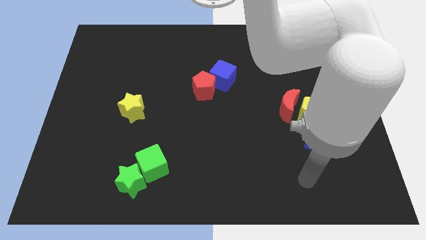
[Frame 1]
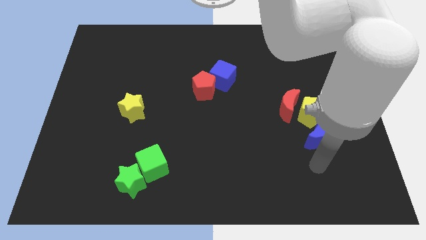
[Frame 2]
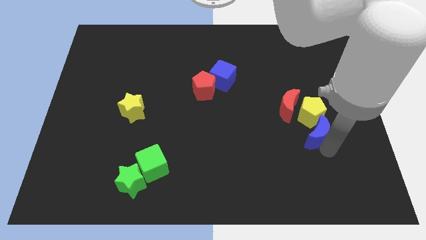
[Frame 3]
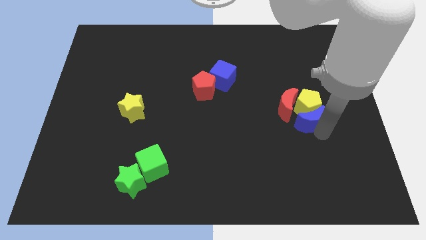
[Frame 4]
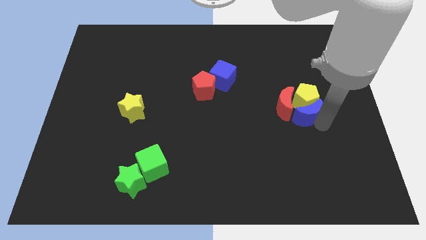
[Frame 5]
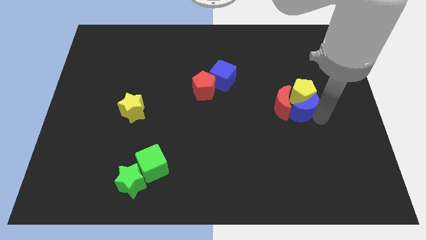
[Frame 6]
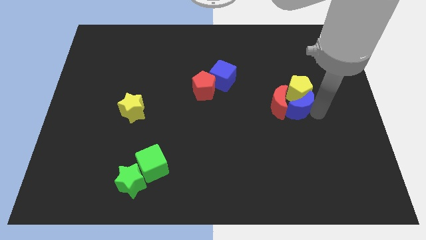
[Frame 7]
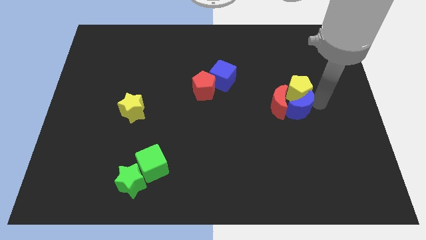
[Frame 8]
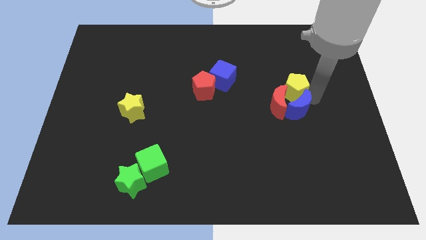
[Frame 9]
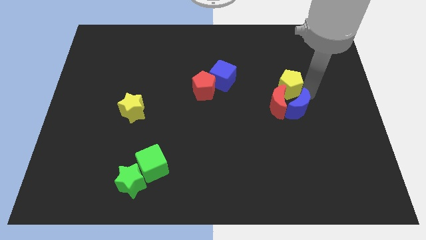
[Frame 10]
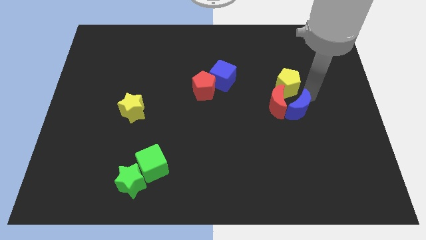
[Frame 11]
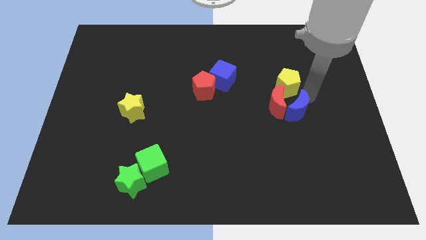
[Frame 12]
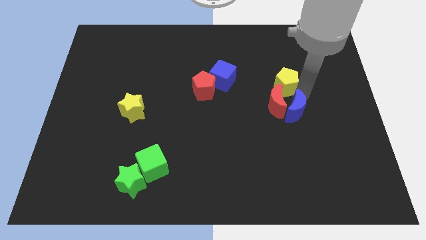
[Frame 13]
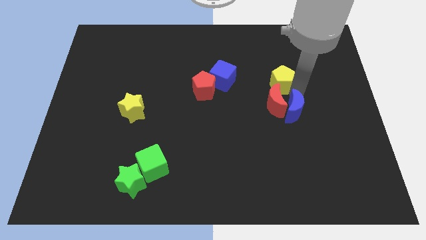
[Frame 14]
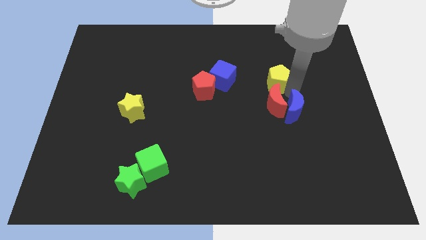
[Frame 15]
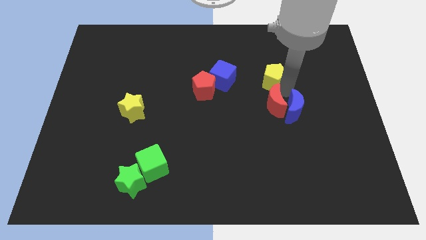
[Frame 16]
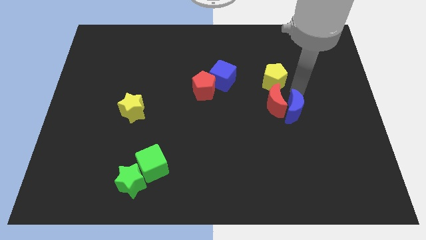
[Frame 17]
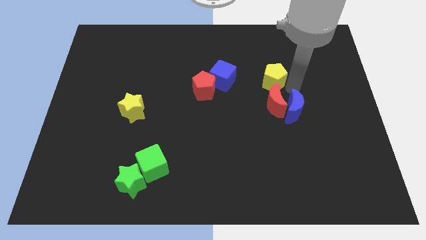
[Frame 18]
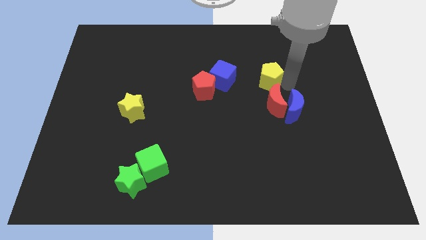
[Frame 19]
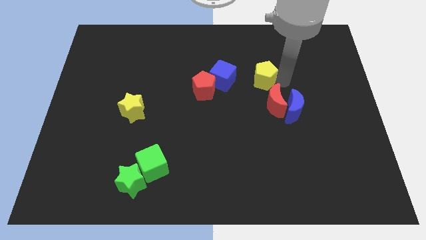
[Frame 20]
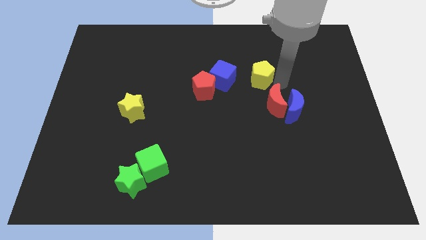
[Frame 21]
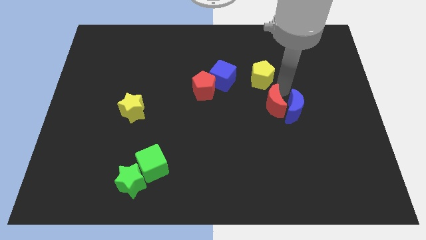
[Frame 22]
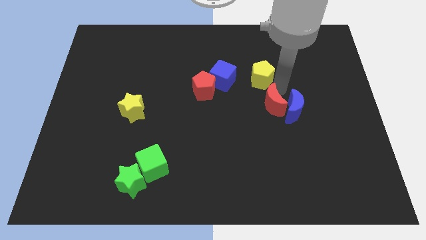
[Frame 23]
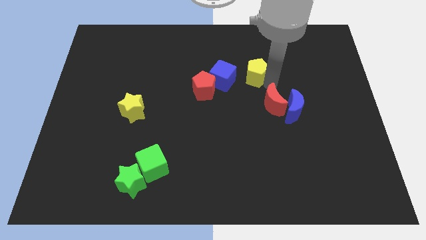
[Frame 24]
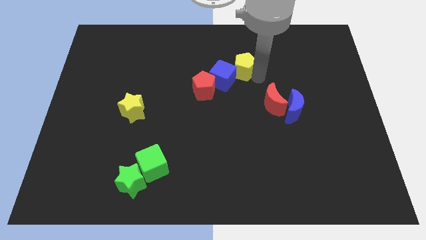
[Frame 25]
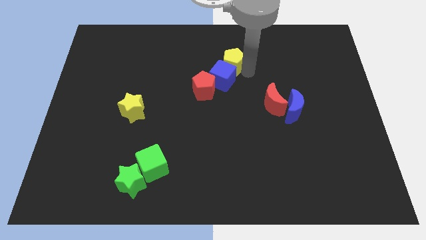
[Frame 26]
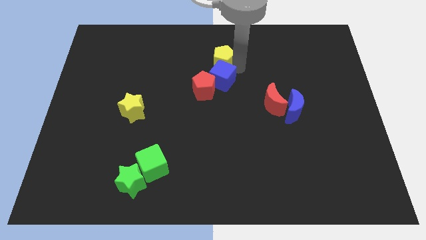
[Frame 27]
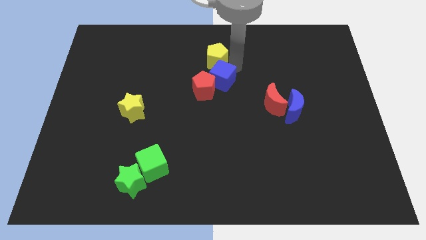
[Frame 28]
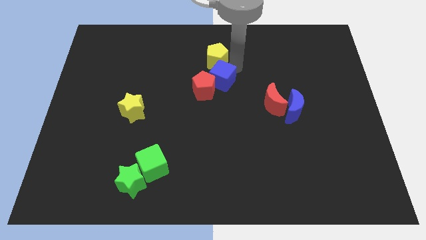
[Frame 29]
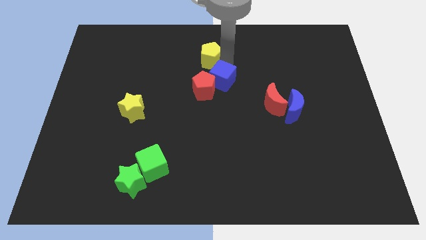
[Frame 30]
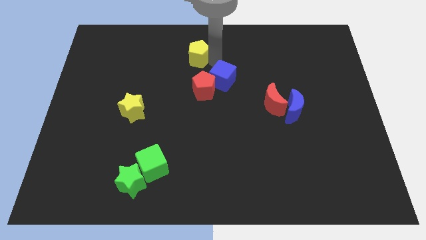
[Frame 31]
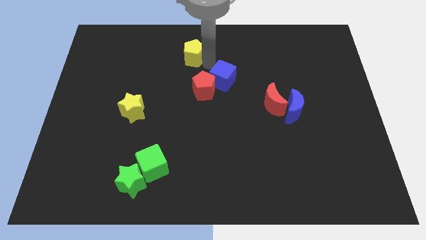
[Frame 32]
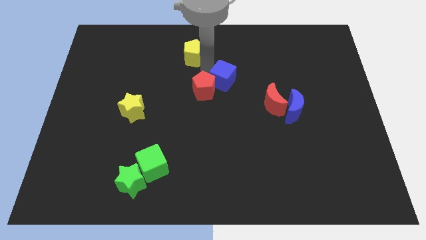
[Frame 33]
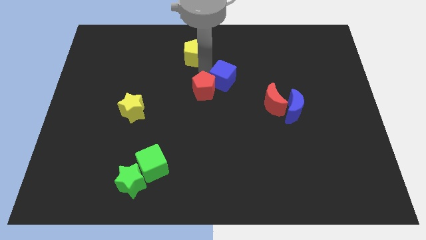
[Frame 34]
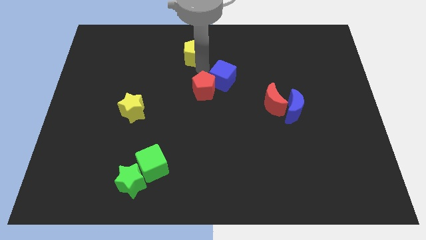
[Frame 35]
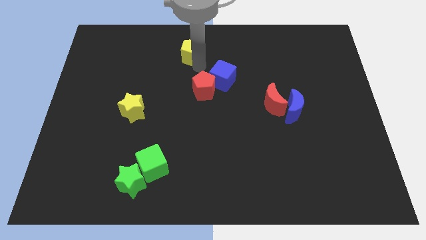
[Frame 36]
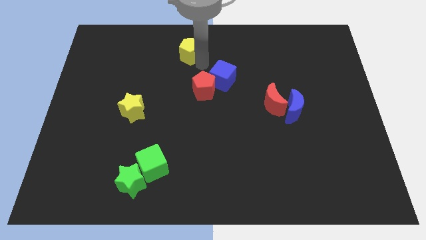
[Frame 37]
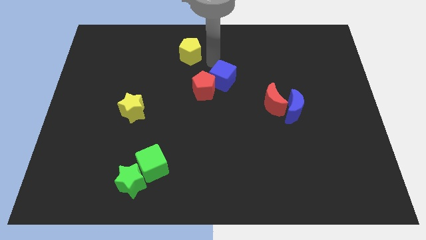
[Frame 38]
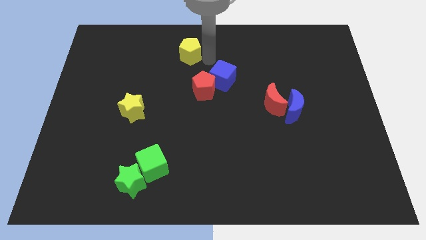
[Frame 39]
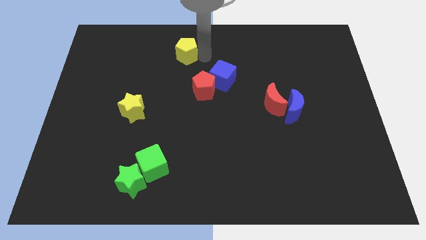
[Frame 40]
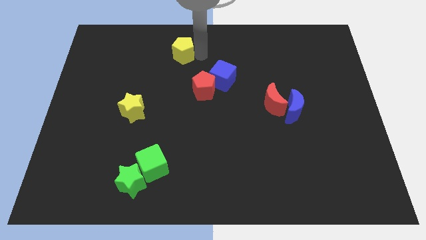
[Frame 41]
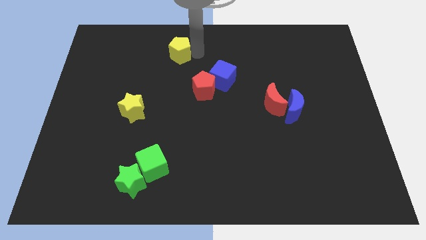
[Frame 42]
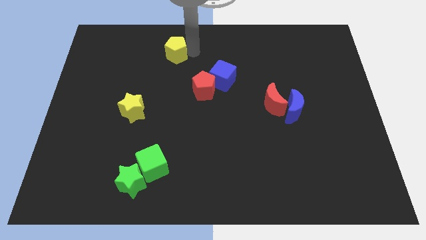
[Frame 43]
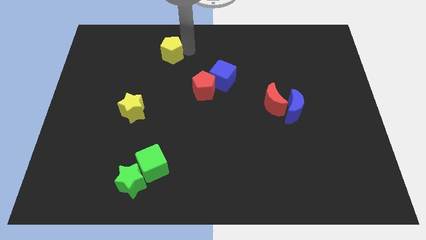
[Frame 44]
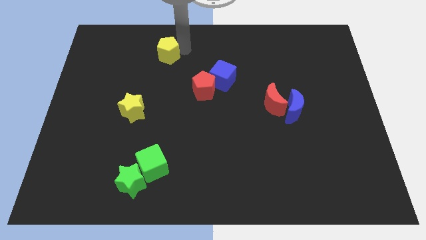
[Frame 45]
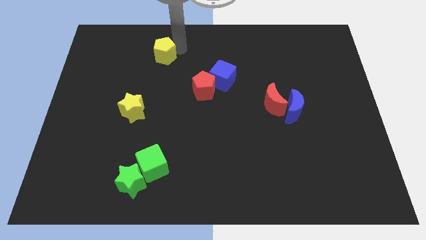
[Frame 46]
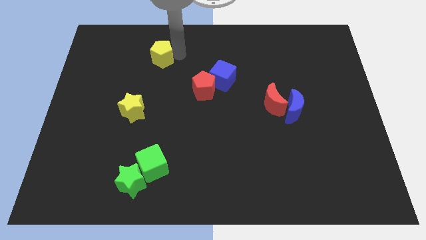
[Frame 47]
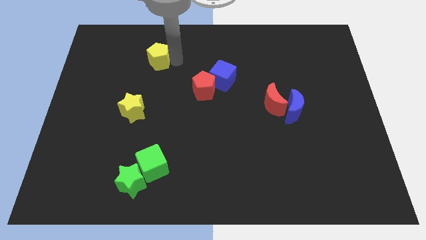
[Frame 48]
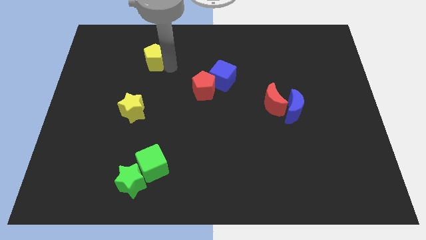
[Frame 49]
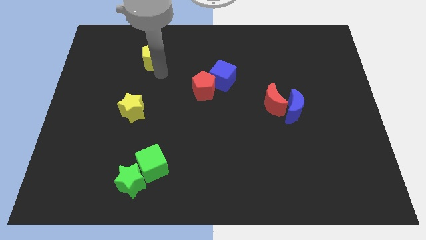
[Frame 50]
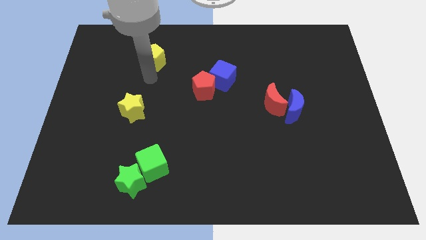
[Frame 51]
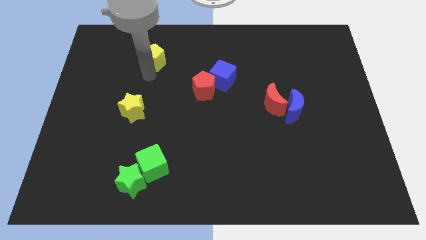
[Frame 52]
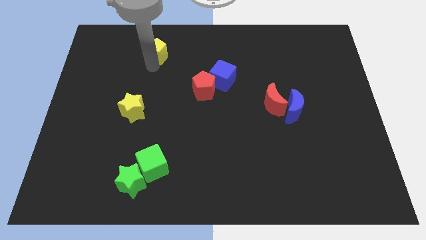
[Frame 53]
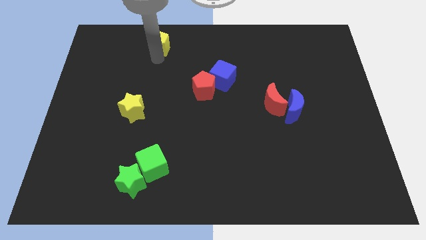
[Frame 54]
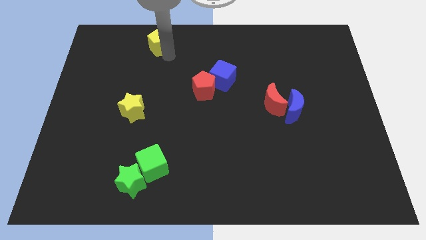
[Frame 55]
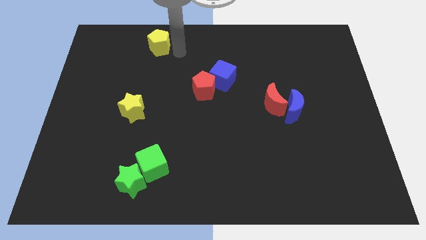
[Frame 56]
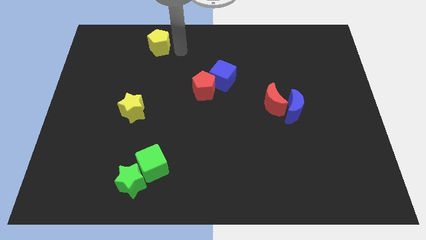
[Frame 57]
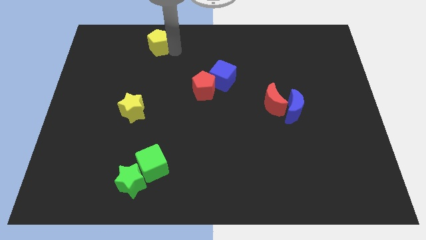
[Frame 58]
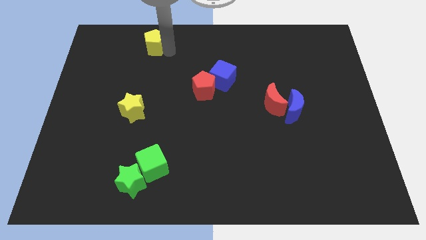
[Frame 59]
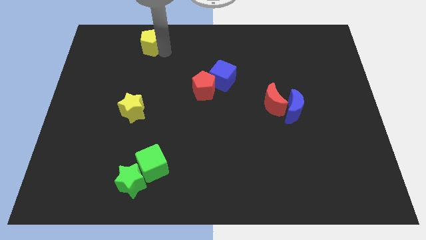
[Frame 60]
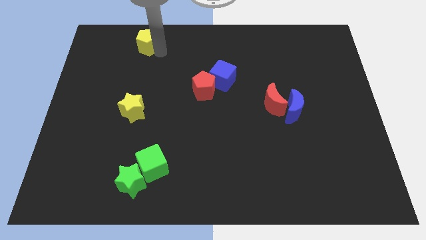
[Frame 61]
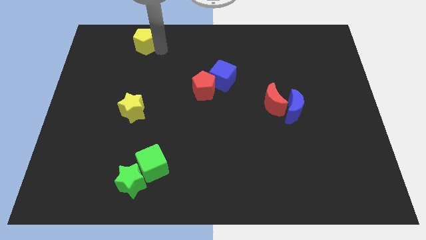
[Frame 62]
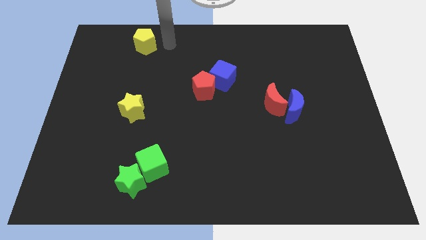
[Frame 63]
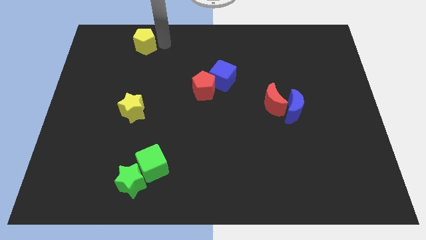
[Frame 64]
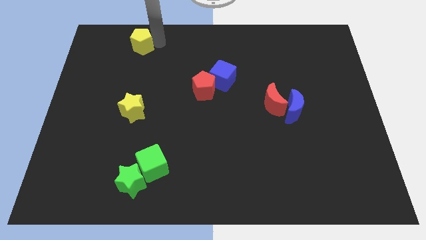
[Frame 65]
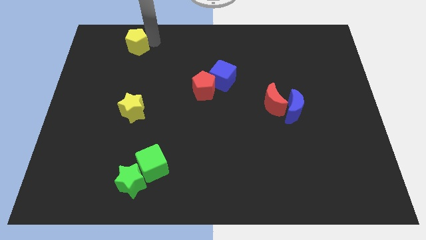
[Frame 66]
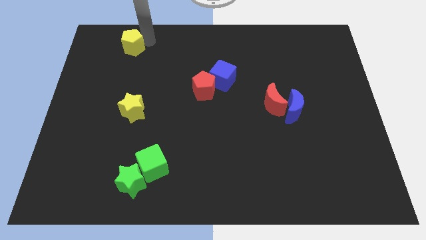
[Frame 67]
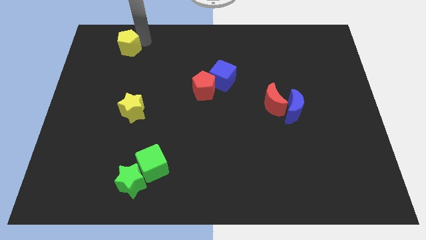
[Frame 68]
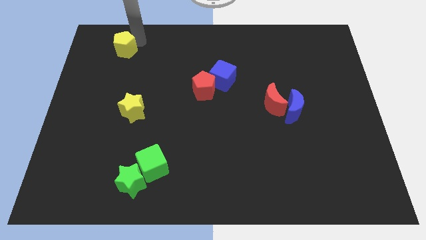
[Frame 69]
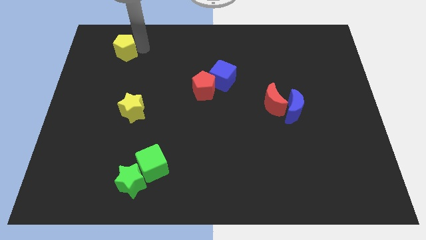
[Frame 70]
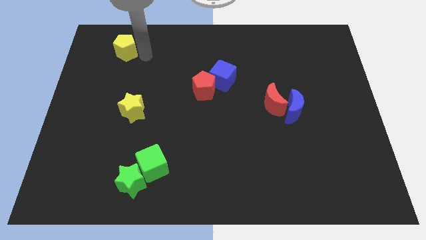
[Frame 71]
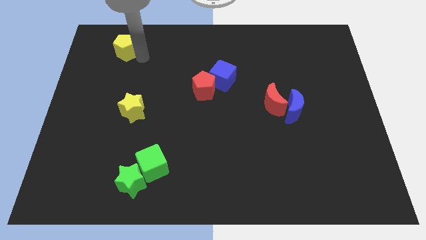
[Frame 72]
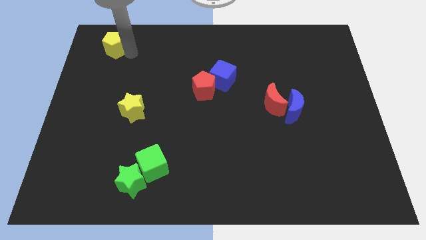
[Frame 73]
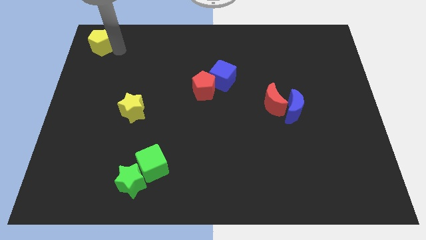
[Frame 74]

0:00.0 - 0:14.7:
push the yellow pentagon to the upper left corner
